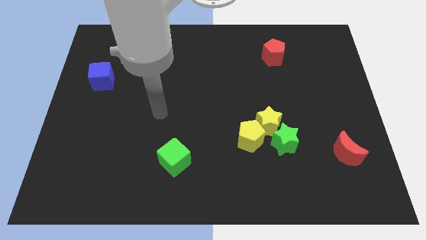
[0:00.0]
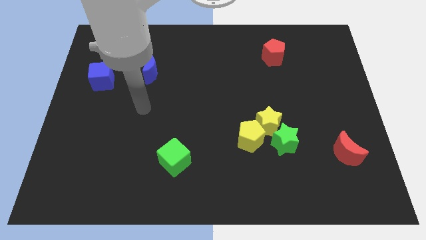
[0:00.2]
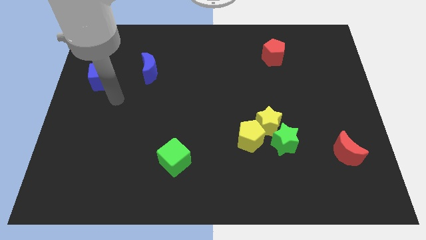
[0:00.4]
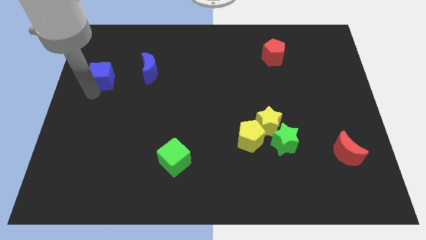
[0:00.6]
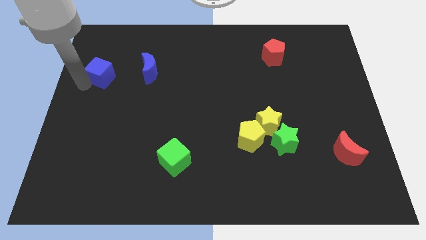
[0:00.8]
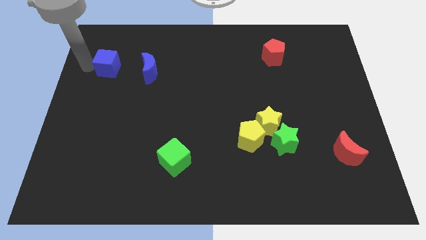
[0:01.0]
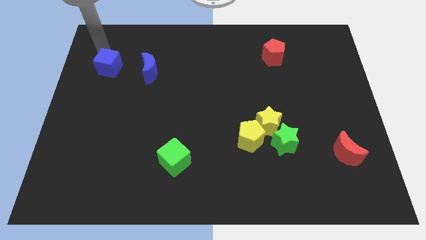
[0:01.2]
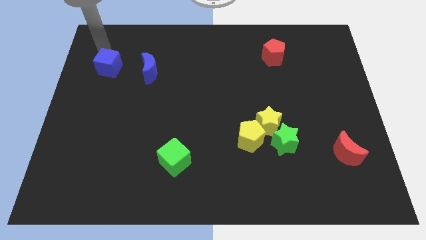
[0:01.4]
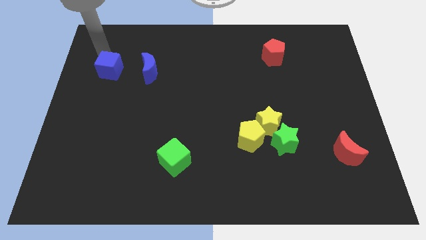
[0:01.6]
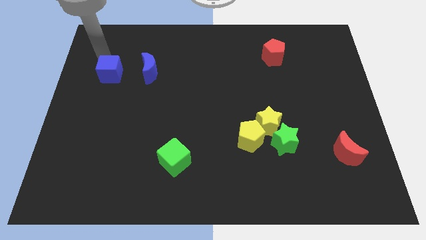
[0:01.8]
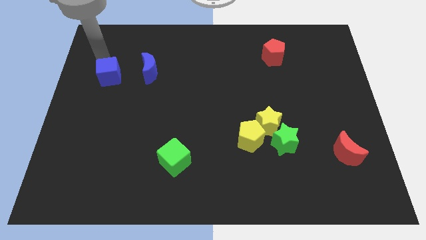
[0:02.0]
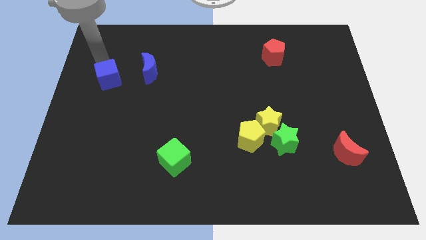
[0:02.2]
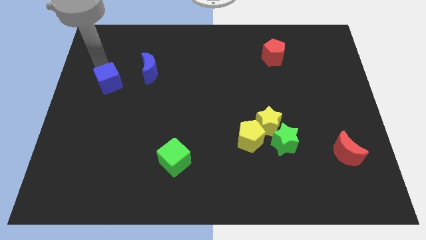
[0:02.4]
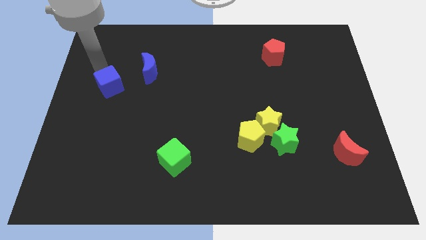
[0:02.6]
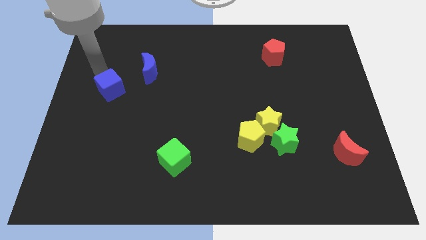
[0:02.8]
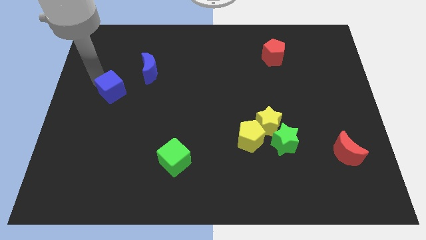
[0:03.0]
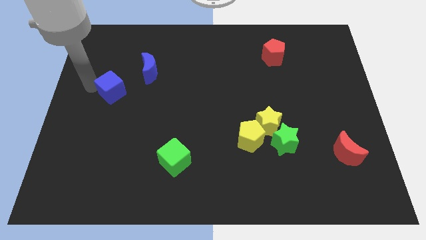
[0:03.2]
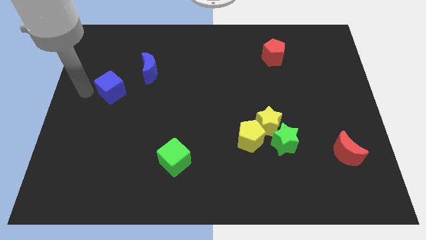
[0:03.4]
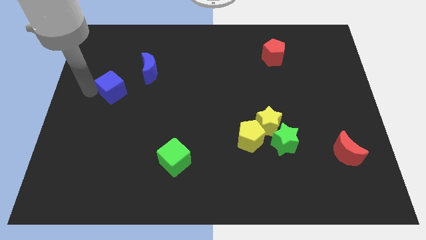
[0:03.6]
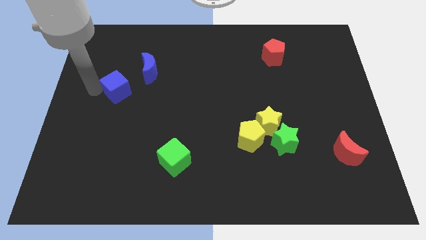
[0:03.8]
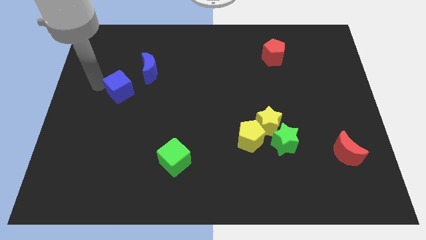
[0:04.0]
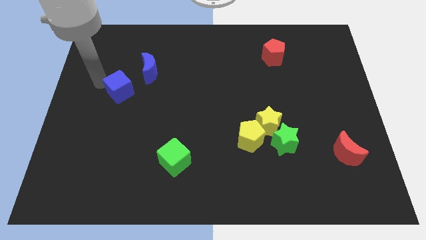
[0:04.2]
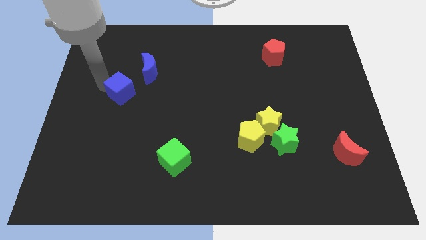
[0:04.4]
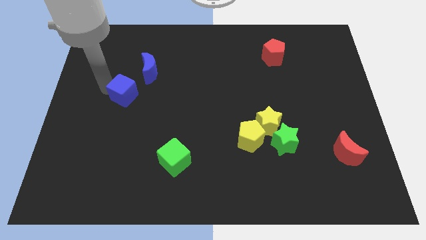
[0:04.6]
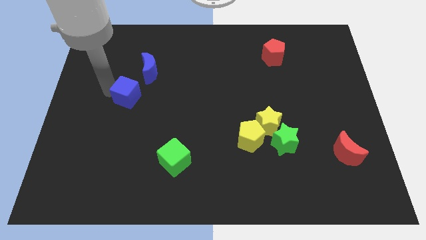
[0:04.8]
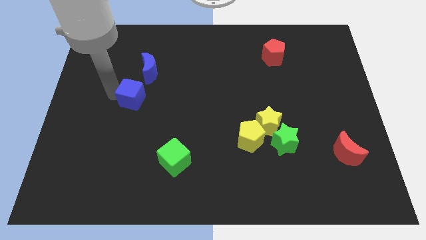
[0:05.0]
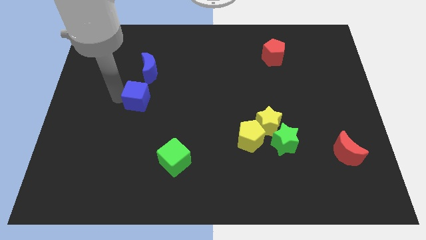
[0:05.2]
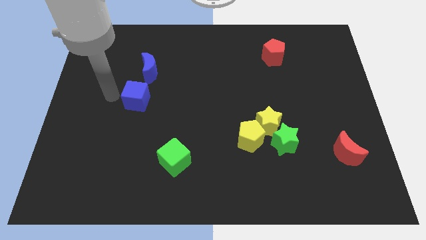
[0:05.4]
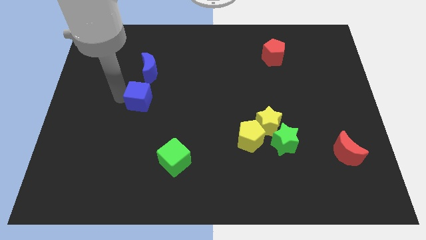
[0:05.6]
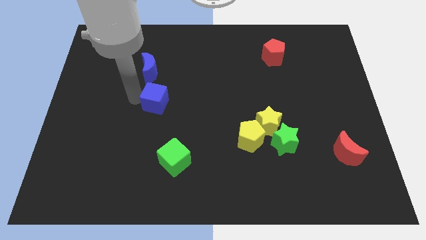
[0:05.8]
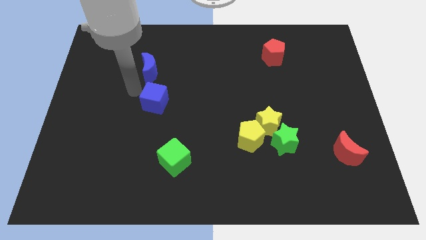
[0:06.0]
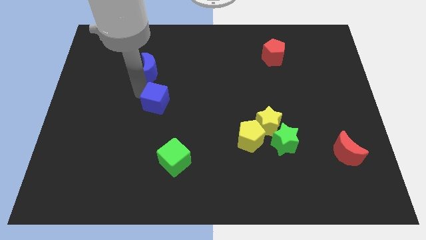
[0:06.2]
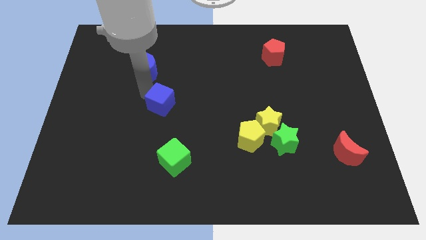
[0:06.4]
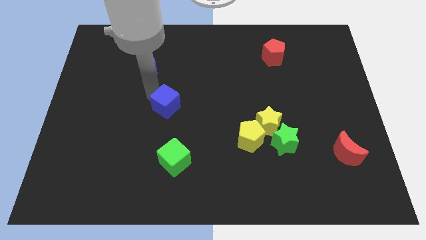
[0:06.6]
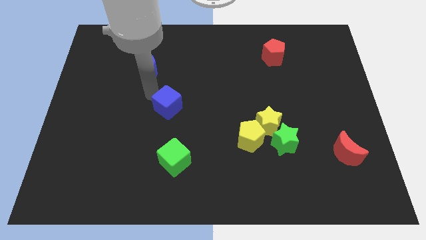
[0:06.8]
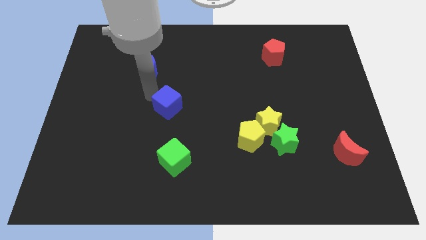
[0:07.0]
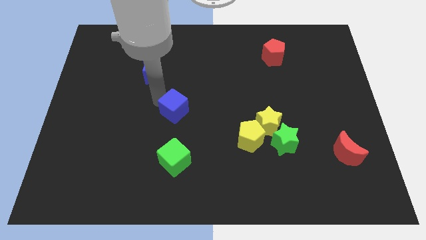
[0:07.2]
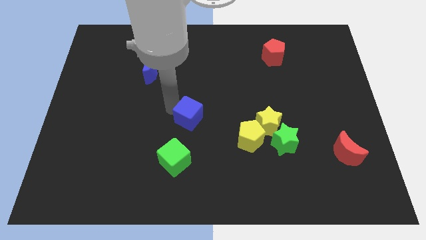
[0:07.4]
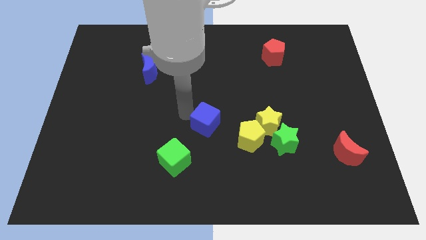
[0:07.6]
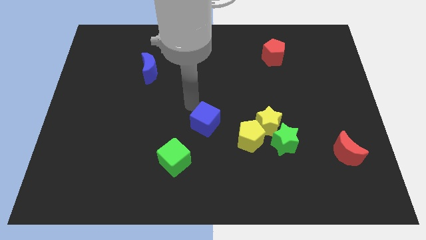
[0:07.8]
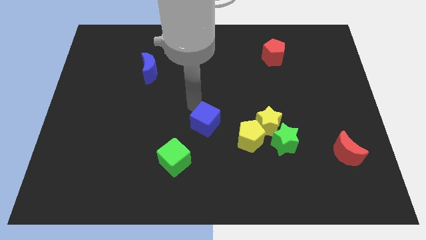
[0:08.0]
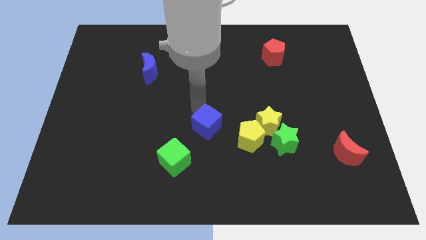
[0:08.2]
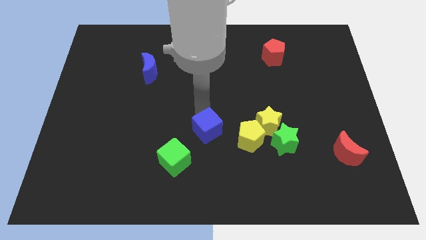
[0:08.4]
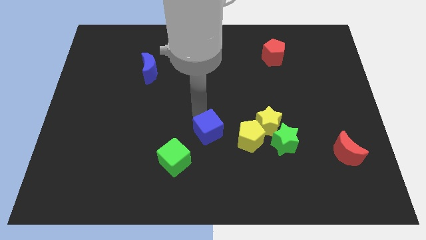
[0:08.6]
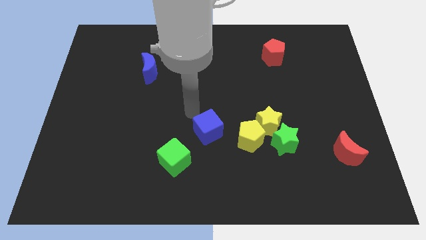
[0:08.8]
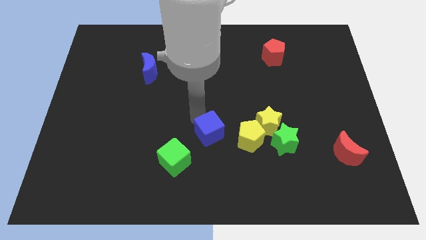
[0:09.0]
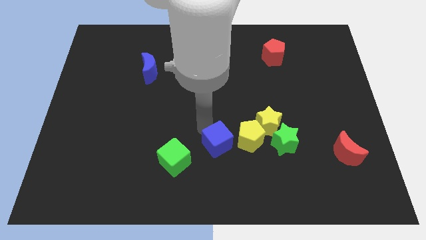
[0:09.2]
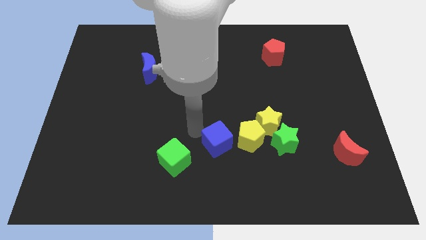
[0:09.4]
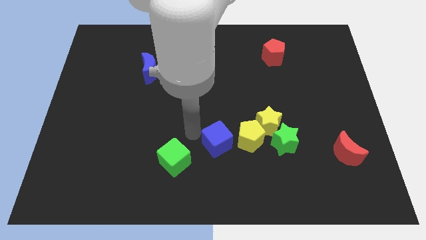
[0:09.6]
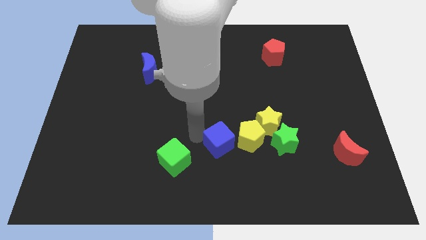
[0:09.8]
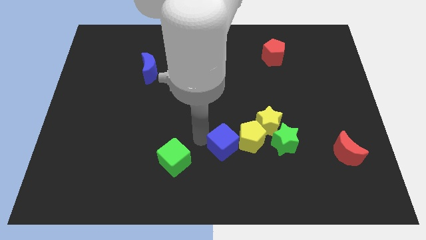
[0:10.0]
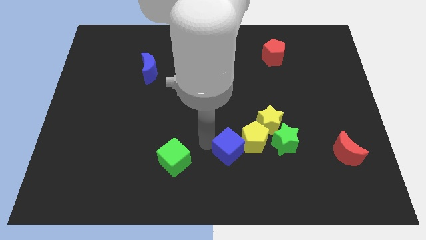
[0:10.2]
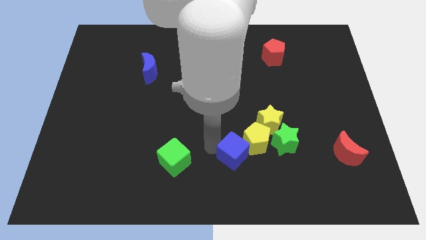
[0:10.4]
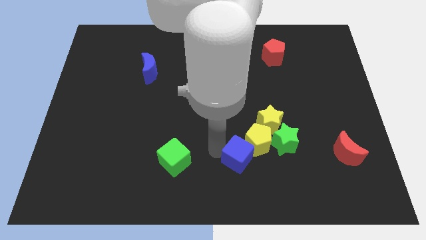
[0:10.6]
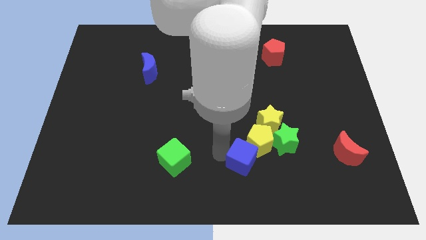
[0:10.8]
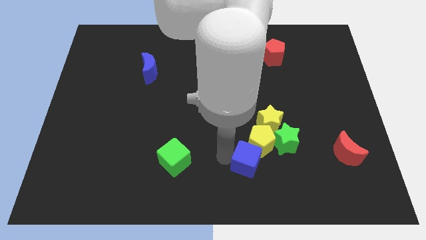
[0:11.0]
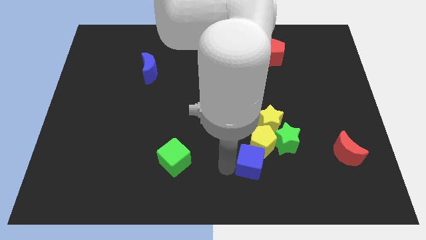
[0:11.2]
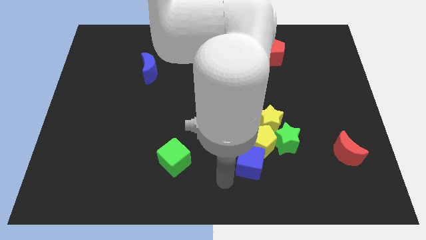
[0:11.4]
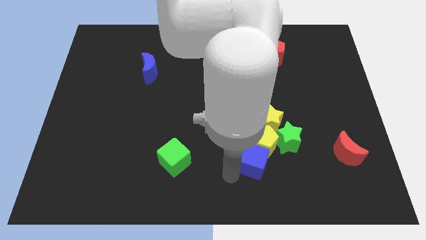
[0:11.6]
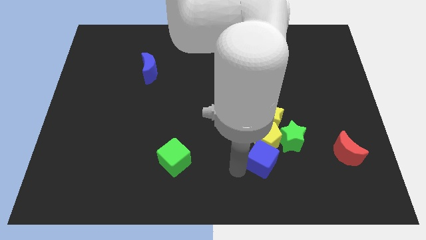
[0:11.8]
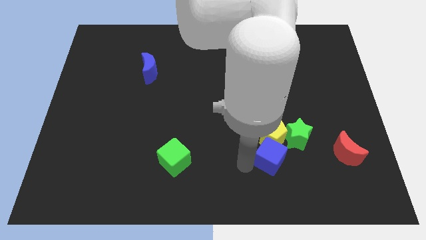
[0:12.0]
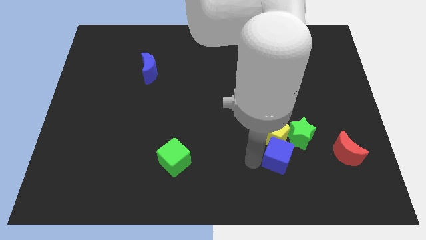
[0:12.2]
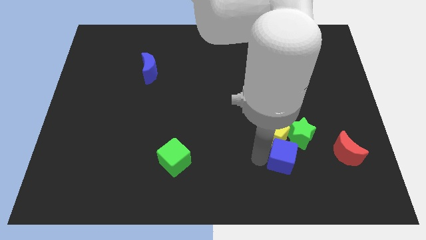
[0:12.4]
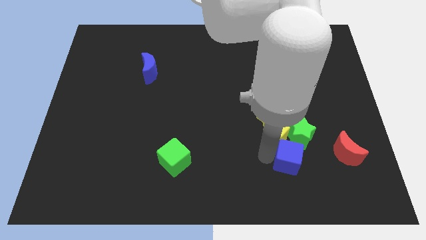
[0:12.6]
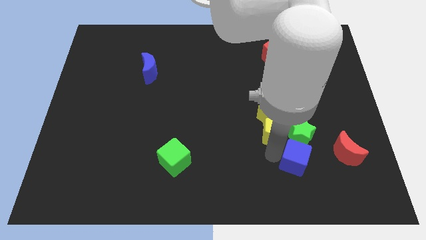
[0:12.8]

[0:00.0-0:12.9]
put the blue cube to the green star

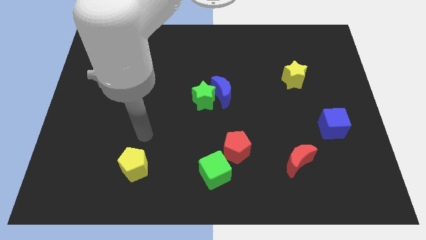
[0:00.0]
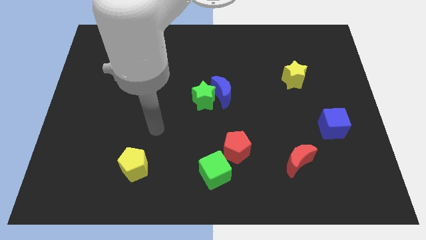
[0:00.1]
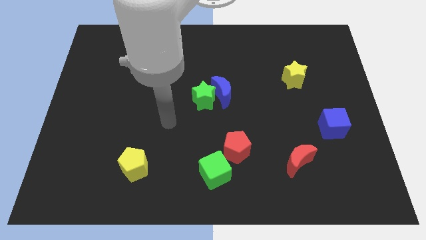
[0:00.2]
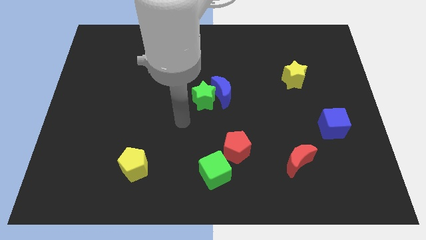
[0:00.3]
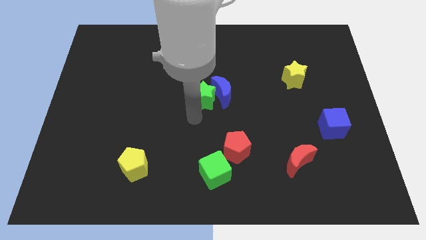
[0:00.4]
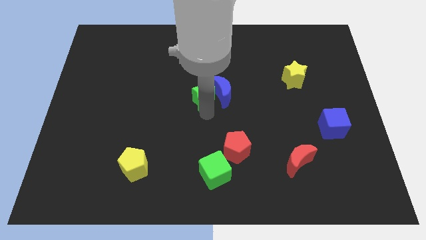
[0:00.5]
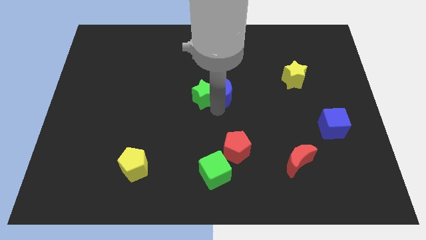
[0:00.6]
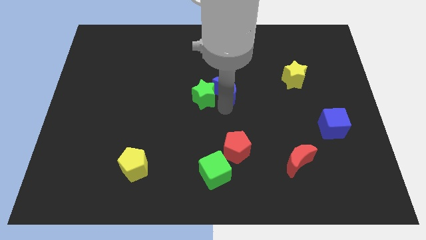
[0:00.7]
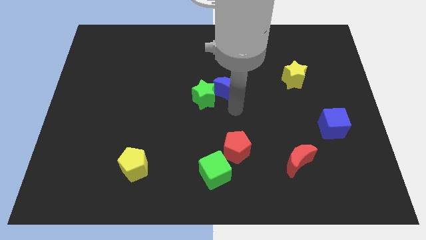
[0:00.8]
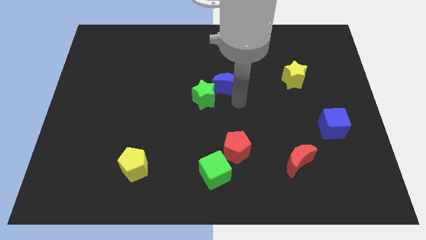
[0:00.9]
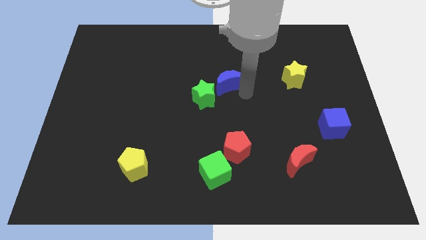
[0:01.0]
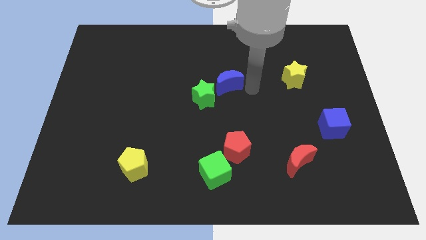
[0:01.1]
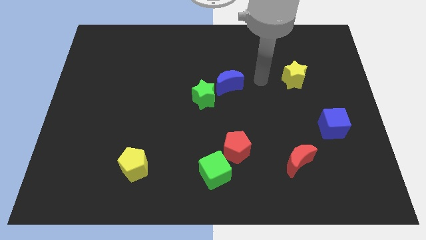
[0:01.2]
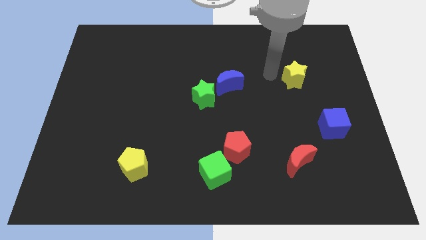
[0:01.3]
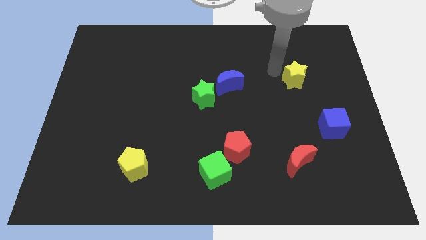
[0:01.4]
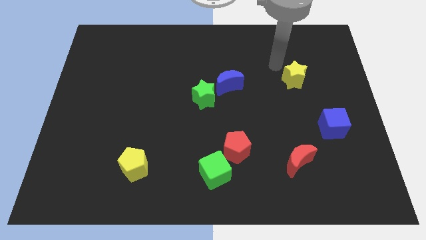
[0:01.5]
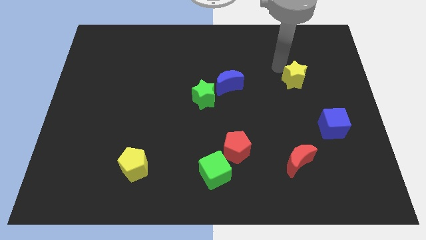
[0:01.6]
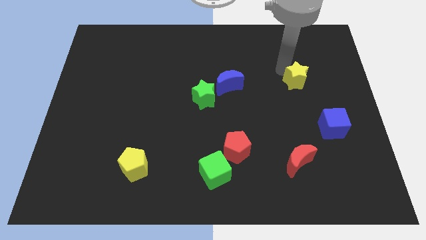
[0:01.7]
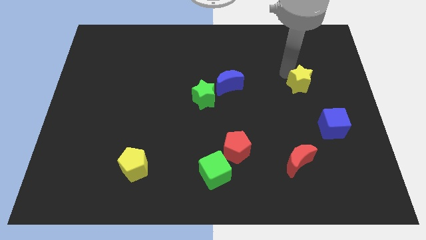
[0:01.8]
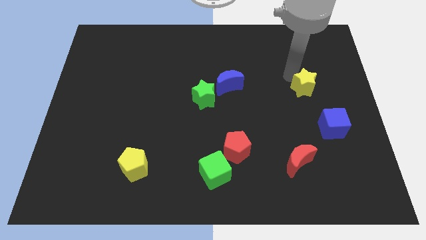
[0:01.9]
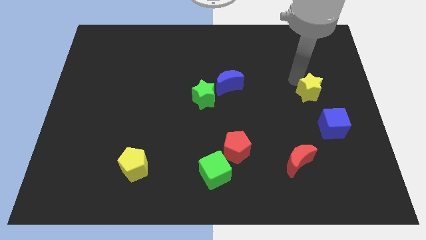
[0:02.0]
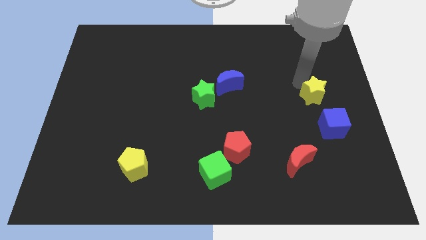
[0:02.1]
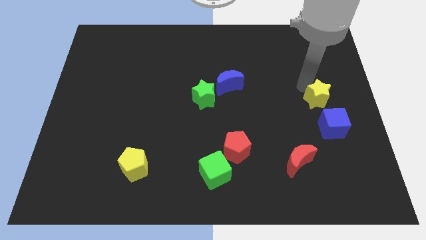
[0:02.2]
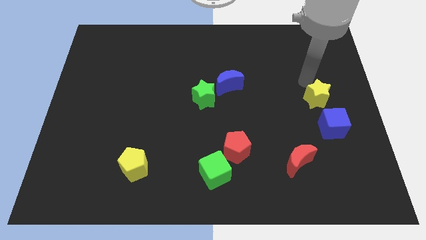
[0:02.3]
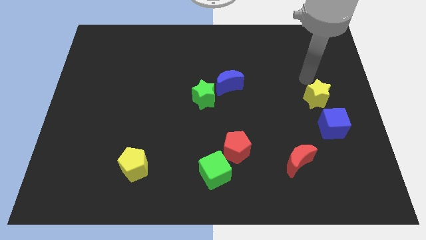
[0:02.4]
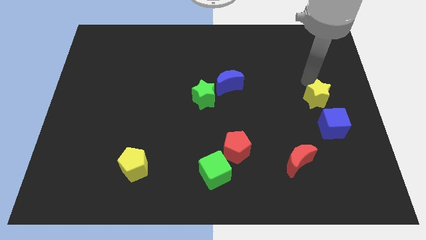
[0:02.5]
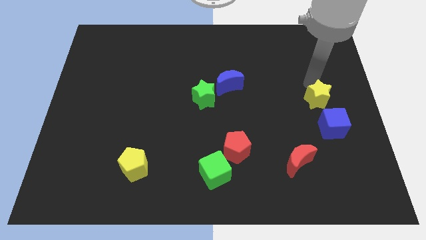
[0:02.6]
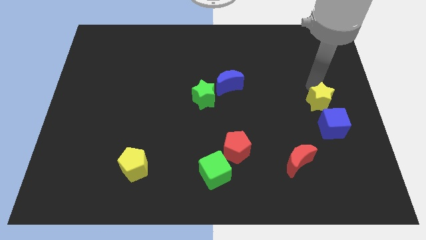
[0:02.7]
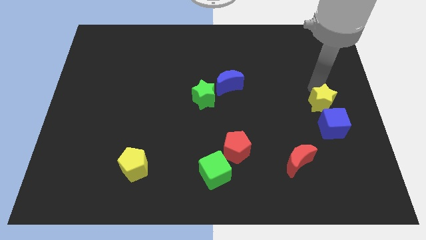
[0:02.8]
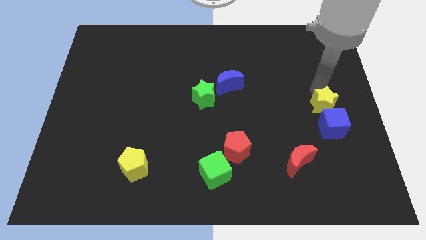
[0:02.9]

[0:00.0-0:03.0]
slide the yellow star close to the blue cube
